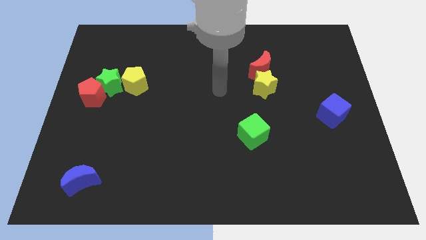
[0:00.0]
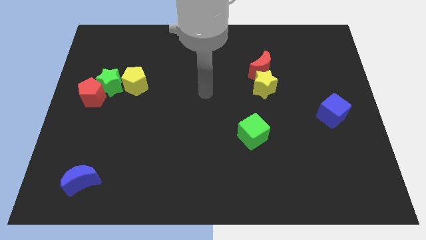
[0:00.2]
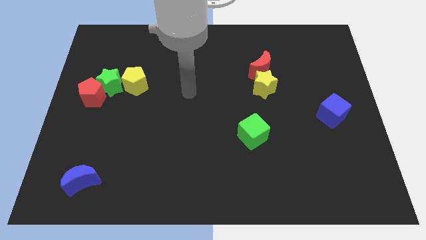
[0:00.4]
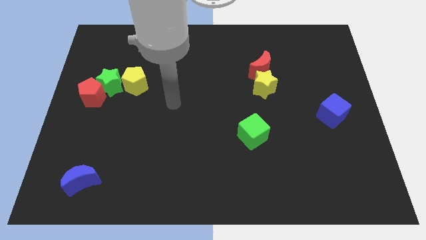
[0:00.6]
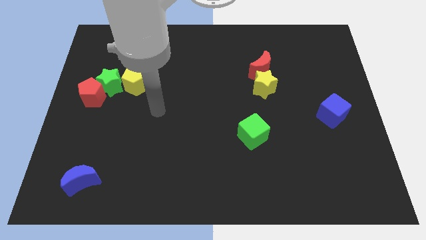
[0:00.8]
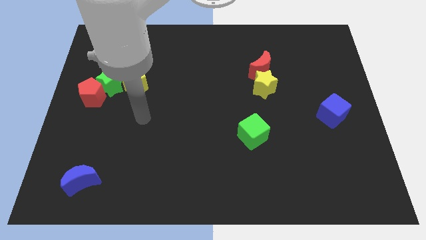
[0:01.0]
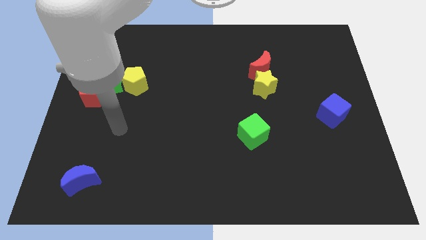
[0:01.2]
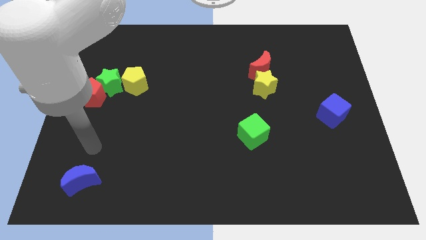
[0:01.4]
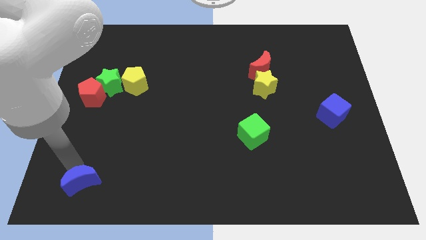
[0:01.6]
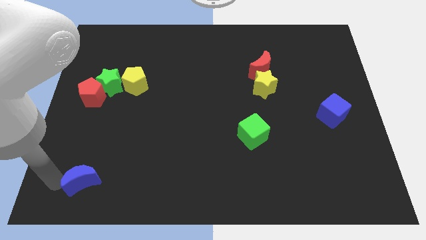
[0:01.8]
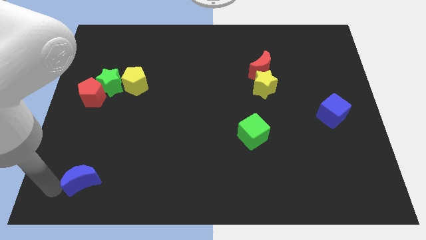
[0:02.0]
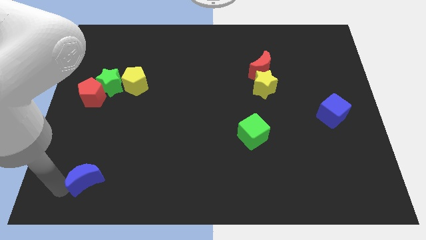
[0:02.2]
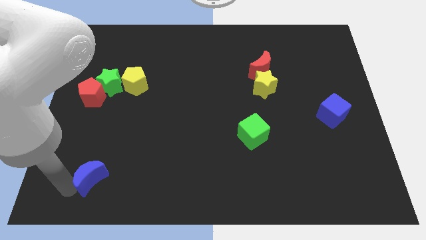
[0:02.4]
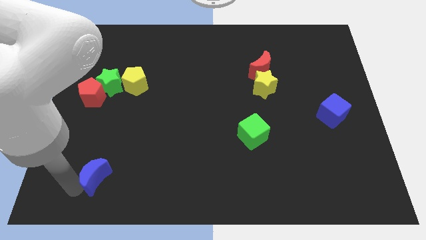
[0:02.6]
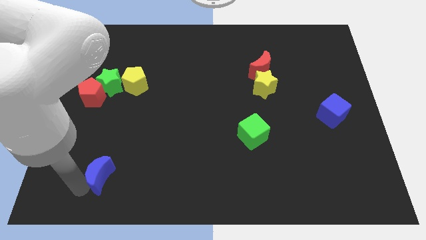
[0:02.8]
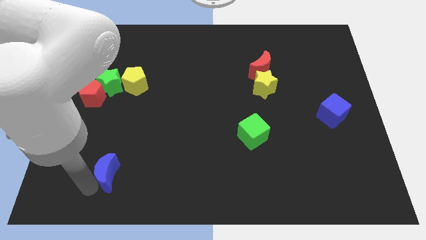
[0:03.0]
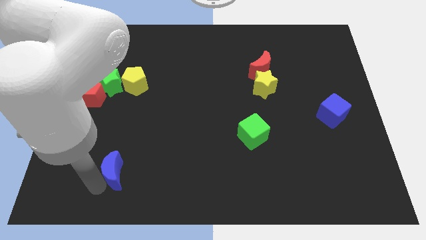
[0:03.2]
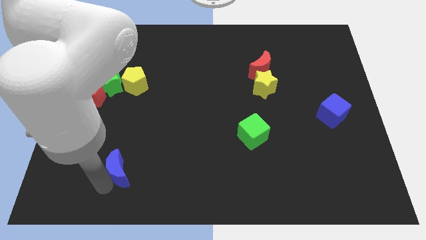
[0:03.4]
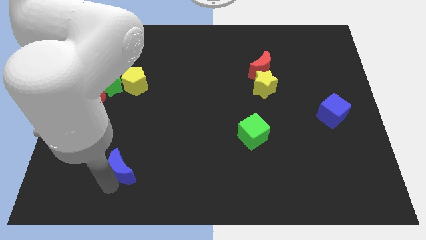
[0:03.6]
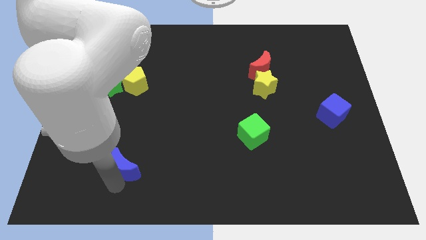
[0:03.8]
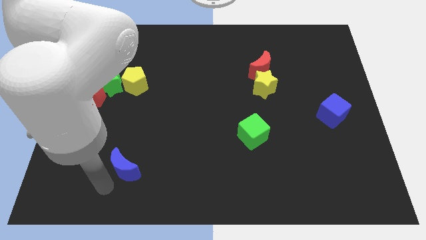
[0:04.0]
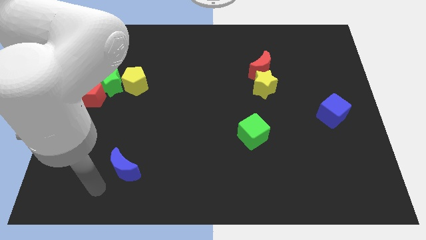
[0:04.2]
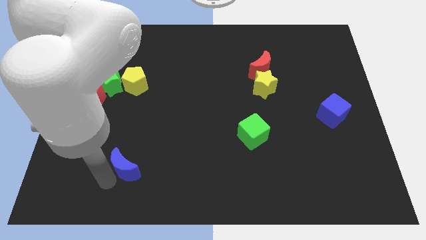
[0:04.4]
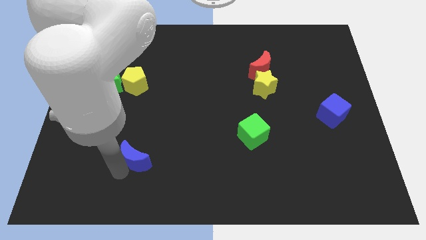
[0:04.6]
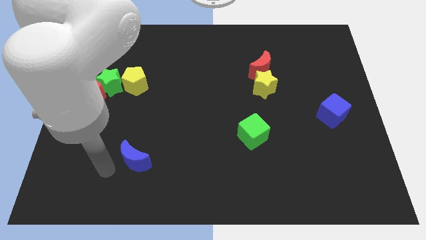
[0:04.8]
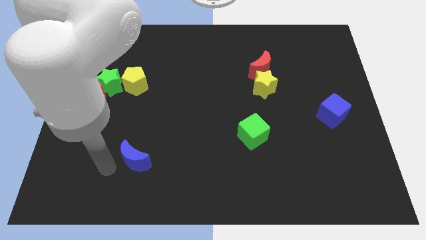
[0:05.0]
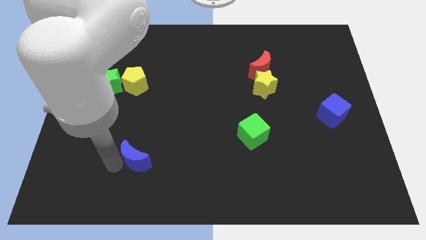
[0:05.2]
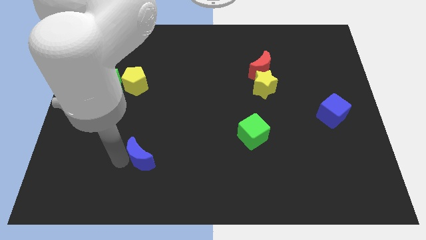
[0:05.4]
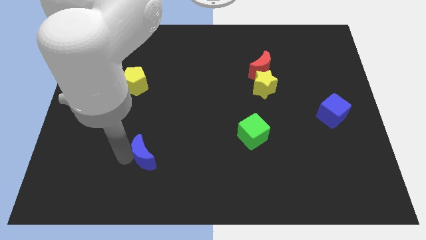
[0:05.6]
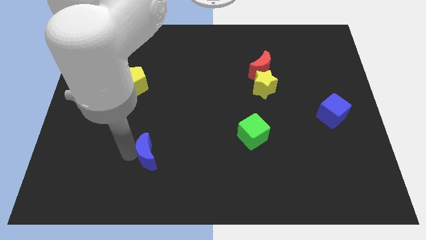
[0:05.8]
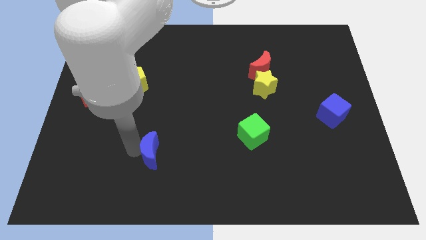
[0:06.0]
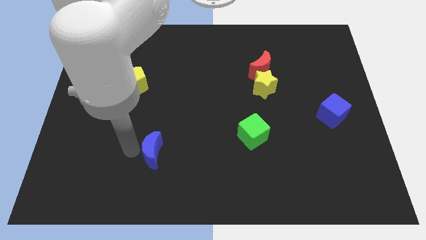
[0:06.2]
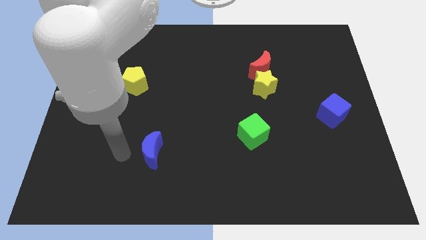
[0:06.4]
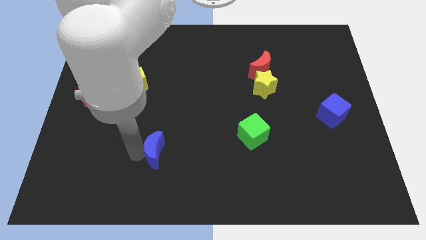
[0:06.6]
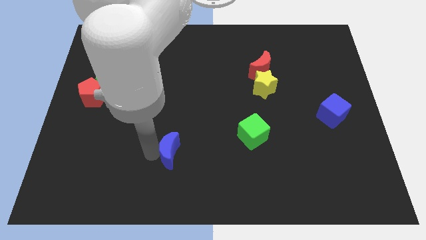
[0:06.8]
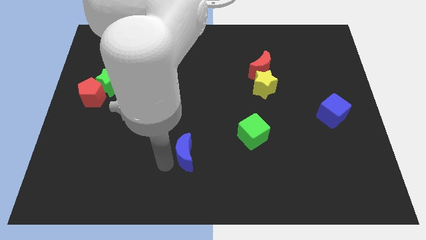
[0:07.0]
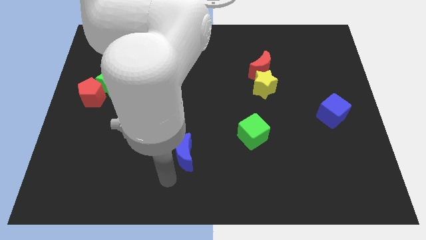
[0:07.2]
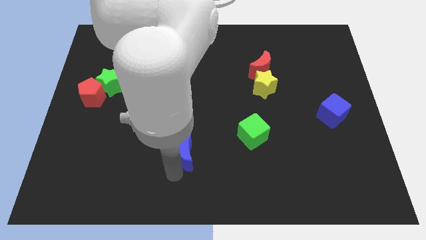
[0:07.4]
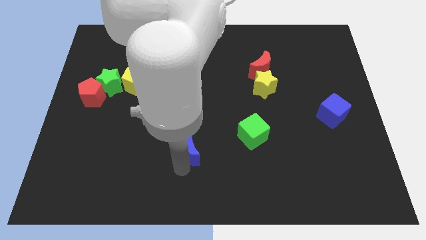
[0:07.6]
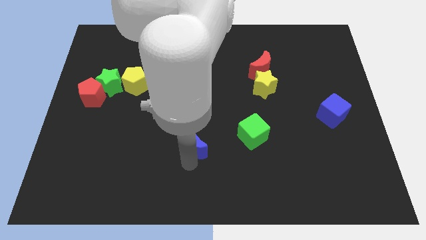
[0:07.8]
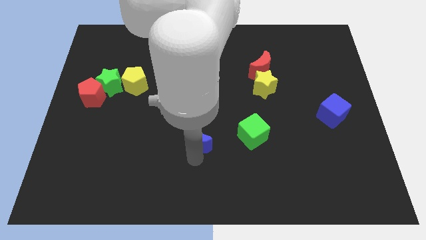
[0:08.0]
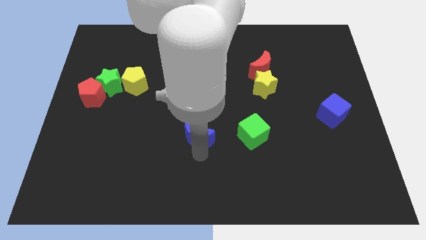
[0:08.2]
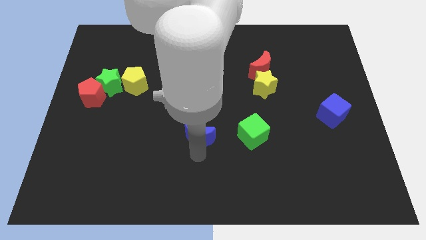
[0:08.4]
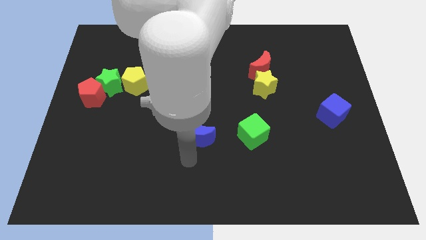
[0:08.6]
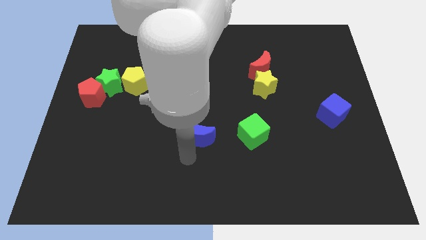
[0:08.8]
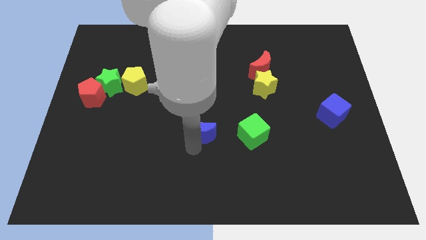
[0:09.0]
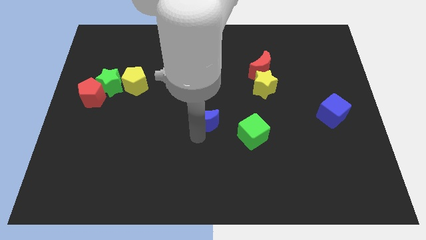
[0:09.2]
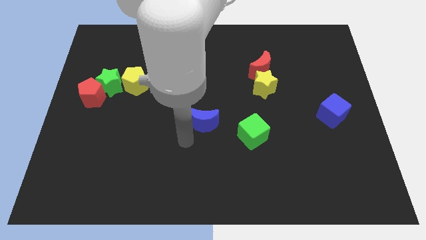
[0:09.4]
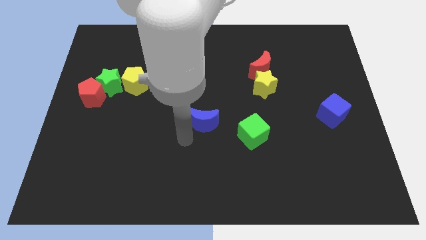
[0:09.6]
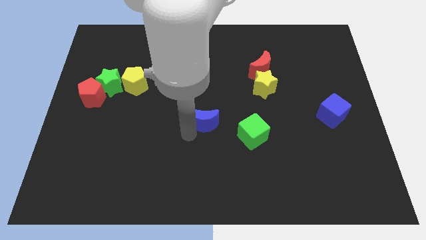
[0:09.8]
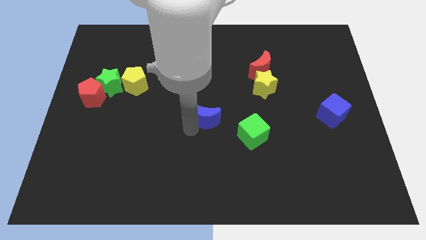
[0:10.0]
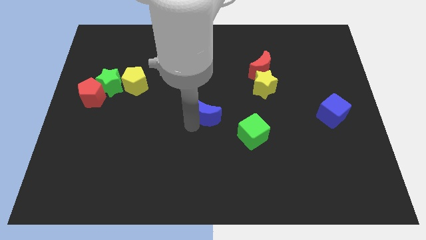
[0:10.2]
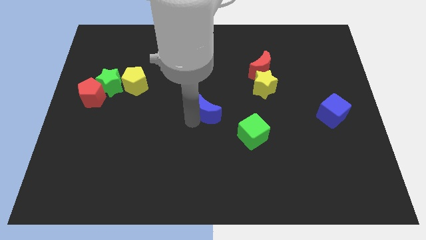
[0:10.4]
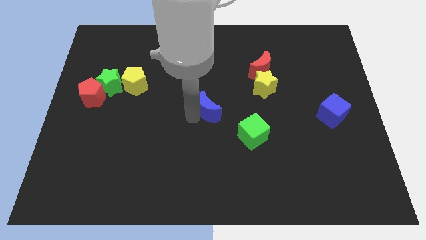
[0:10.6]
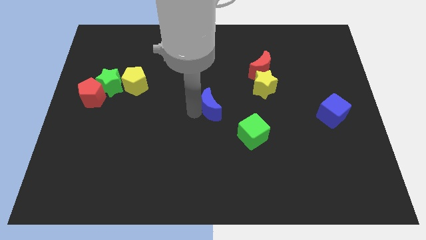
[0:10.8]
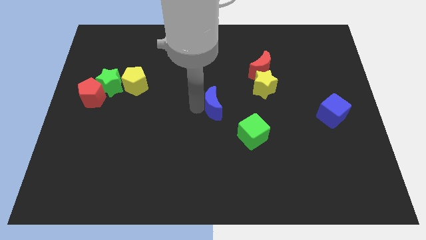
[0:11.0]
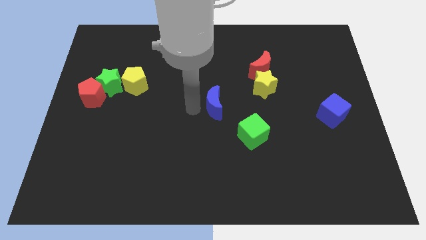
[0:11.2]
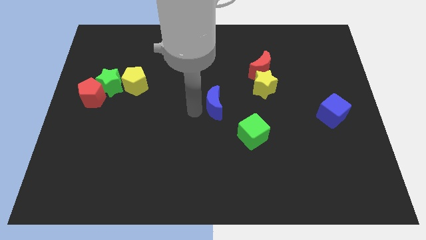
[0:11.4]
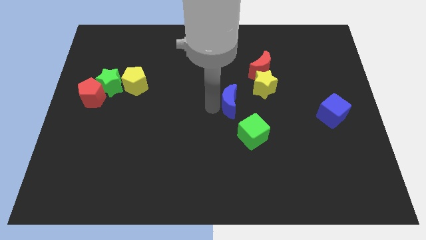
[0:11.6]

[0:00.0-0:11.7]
slide the blue moon above the green cube

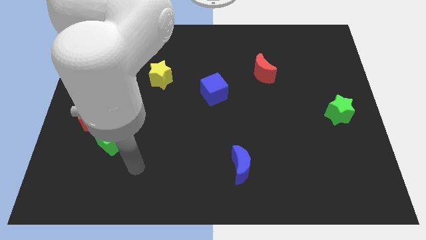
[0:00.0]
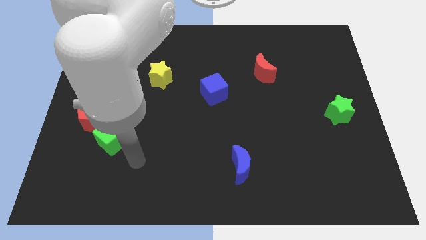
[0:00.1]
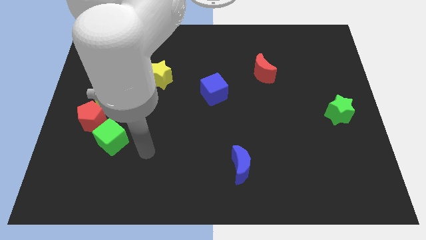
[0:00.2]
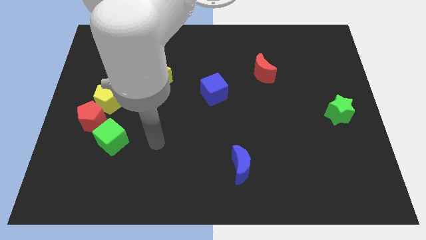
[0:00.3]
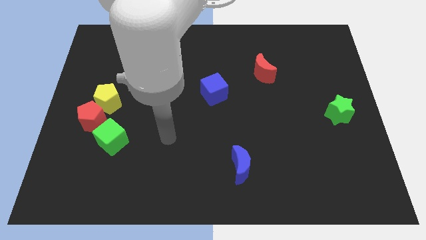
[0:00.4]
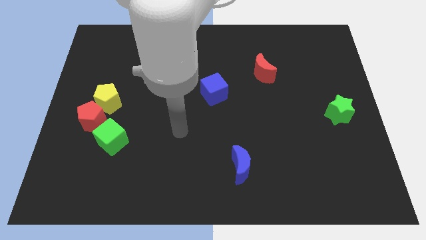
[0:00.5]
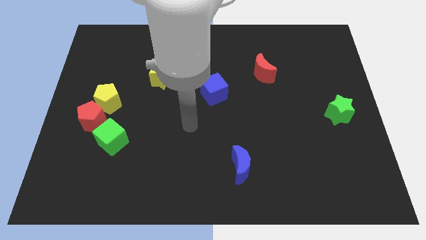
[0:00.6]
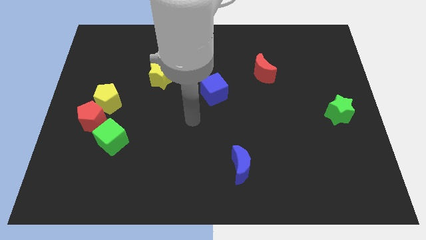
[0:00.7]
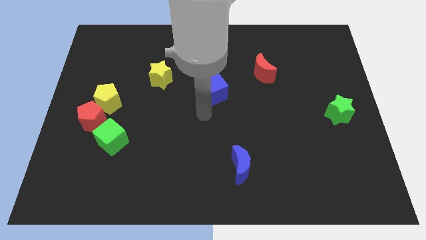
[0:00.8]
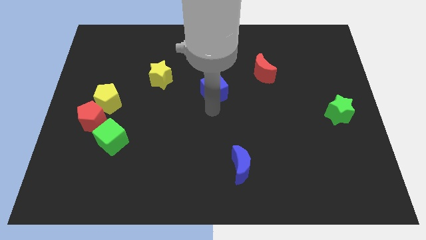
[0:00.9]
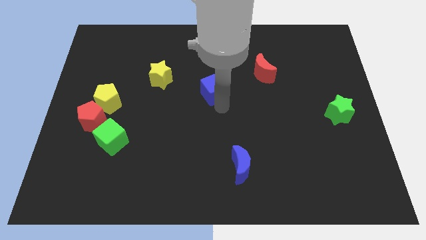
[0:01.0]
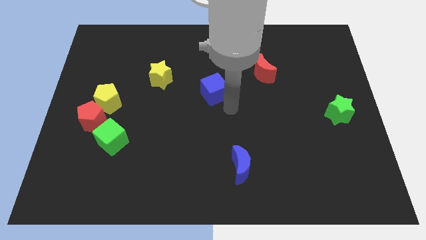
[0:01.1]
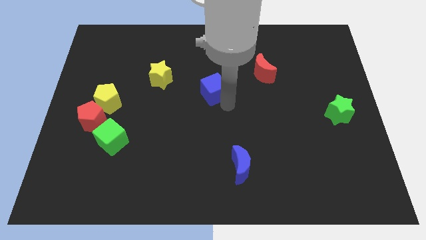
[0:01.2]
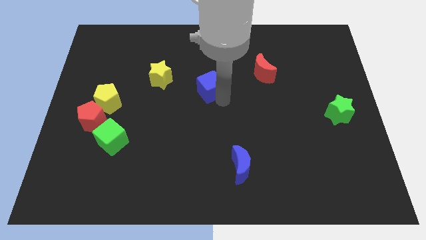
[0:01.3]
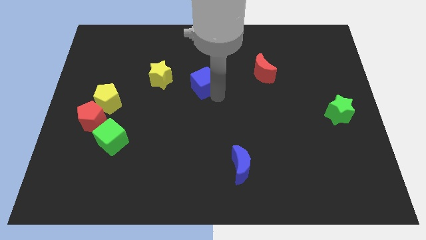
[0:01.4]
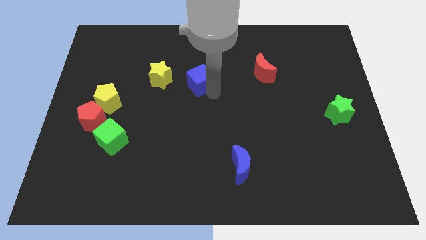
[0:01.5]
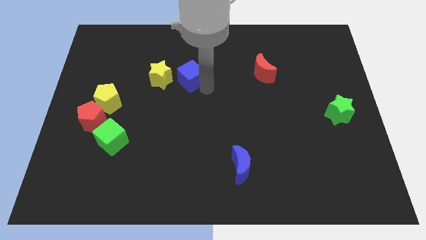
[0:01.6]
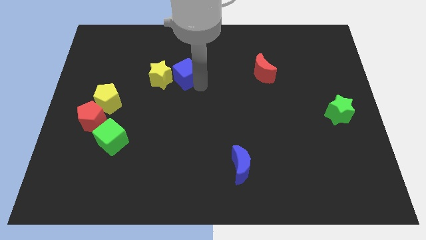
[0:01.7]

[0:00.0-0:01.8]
move the blue cube diagonally up and to the right of the yellow star
